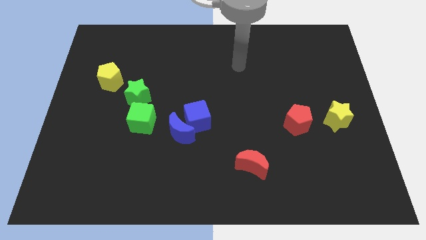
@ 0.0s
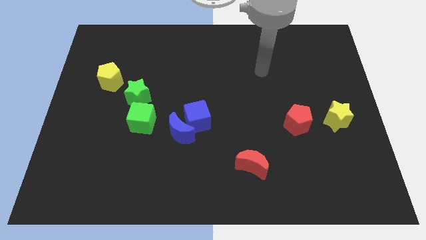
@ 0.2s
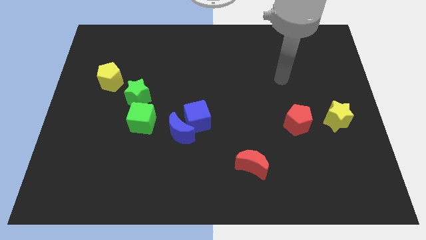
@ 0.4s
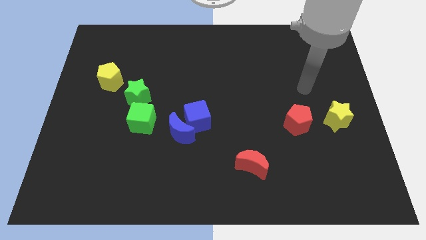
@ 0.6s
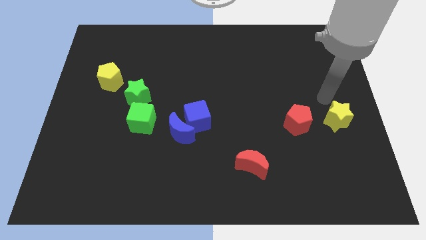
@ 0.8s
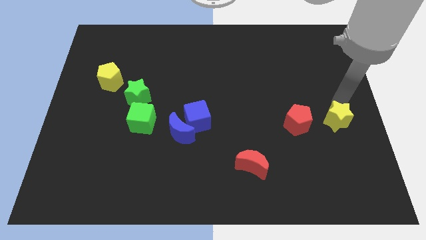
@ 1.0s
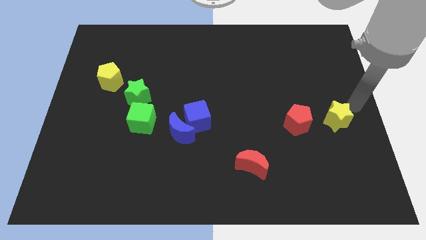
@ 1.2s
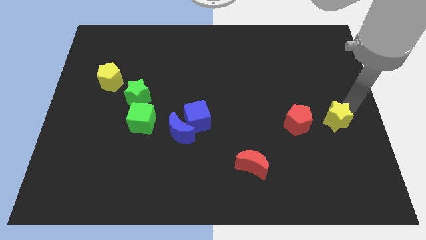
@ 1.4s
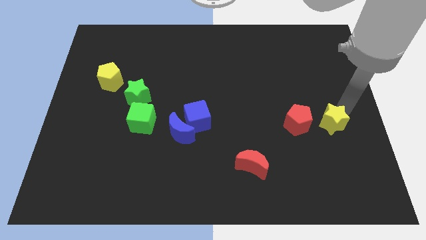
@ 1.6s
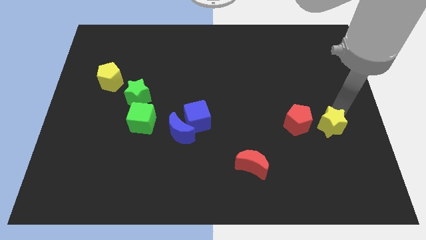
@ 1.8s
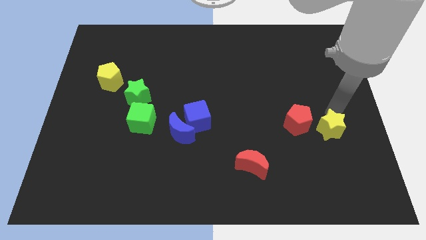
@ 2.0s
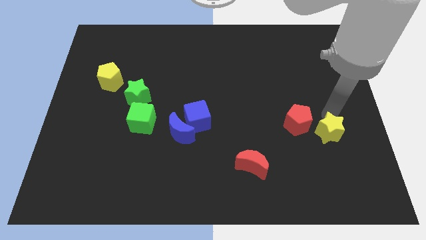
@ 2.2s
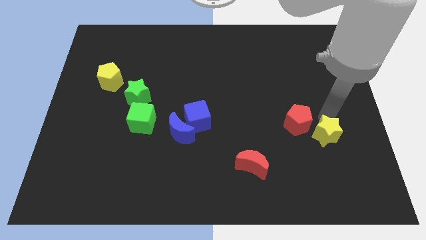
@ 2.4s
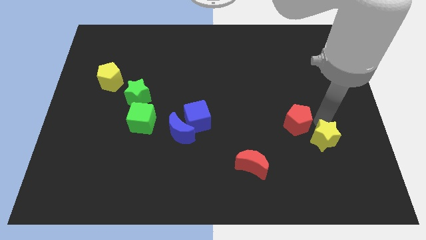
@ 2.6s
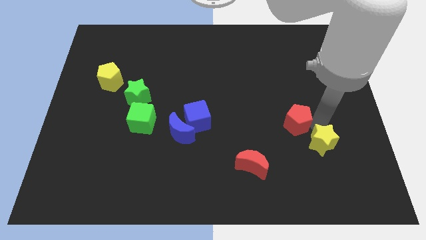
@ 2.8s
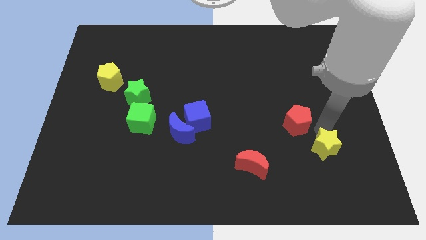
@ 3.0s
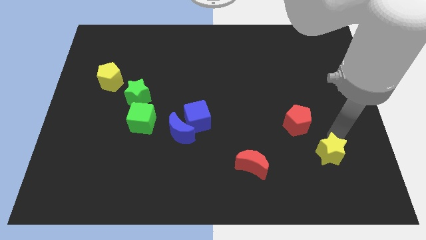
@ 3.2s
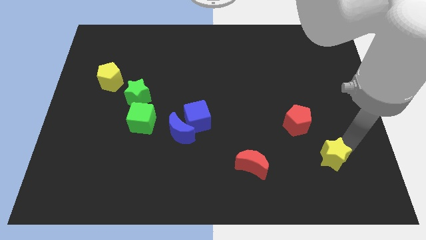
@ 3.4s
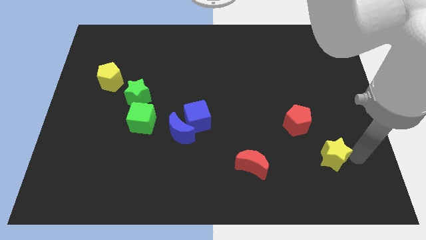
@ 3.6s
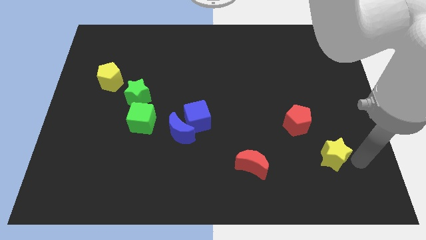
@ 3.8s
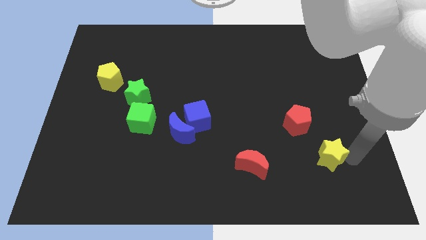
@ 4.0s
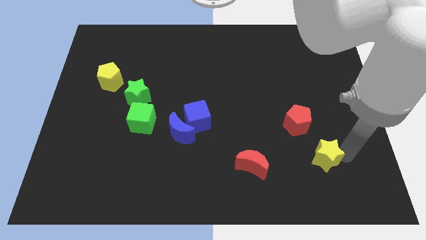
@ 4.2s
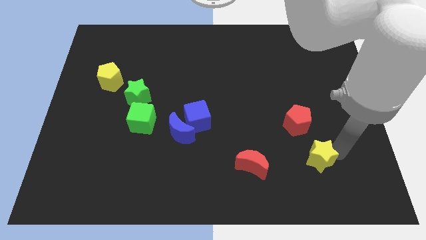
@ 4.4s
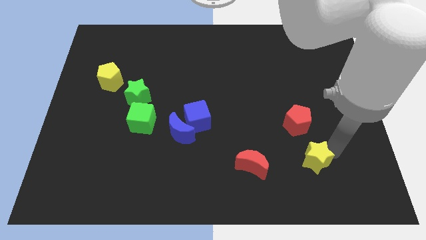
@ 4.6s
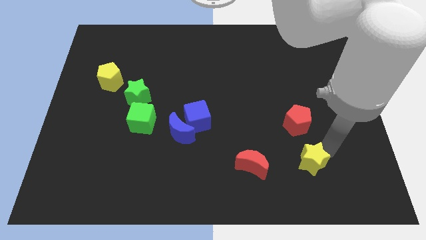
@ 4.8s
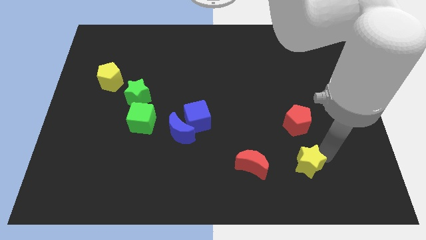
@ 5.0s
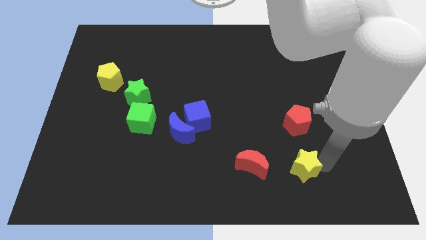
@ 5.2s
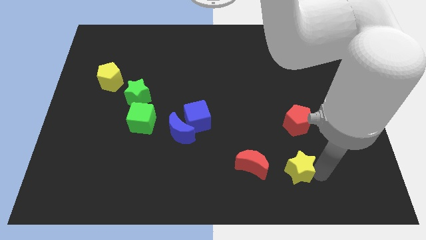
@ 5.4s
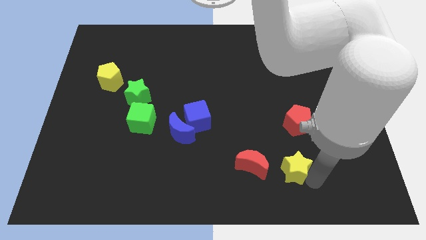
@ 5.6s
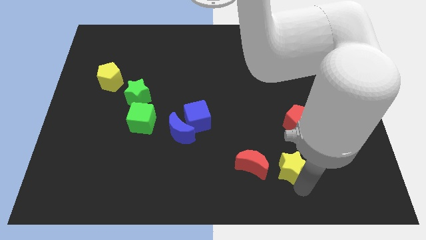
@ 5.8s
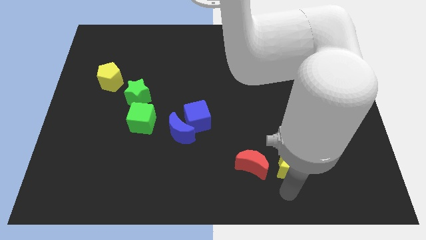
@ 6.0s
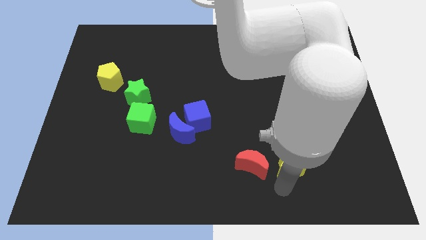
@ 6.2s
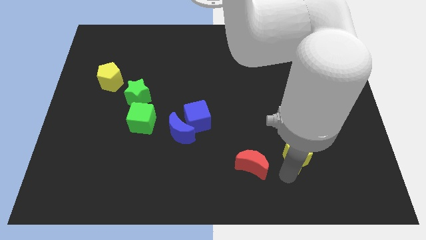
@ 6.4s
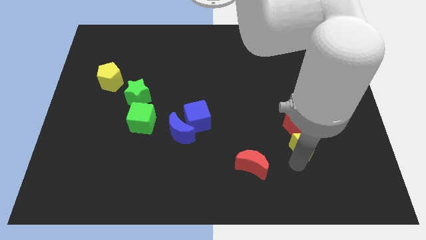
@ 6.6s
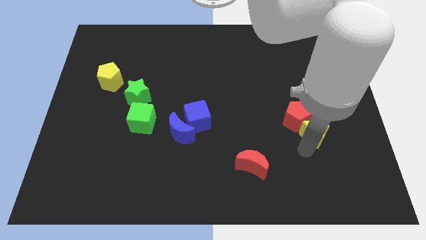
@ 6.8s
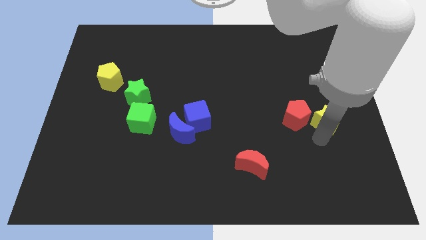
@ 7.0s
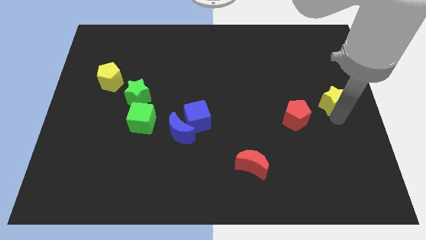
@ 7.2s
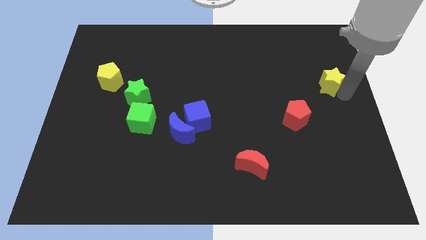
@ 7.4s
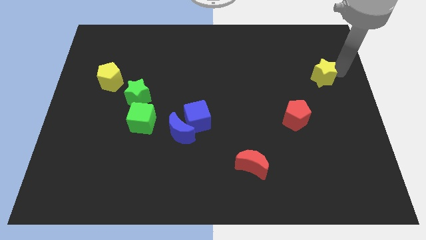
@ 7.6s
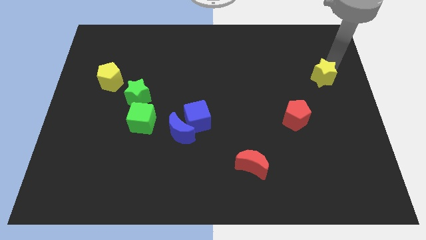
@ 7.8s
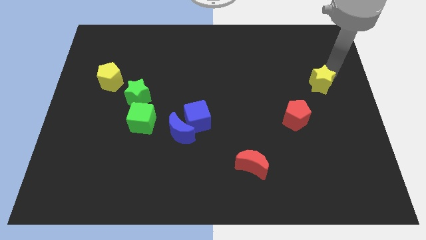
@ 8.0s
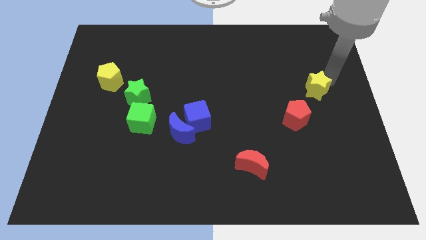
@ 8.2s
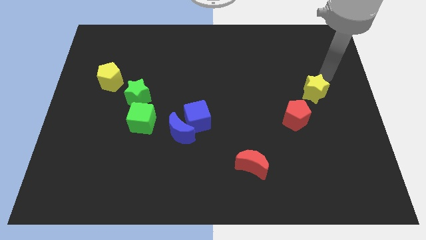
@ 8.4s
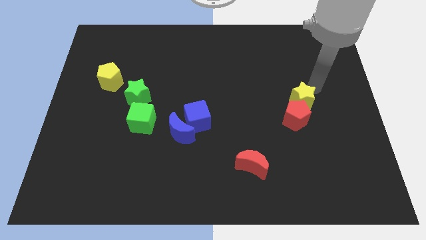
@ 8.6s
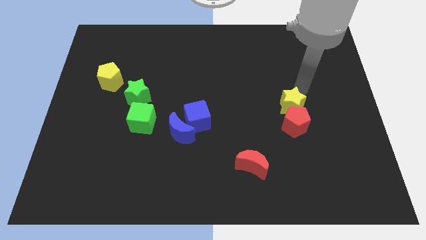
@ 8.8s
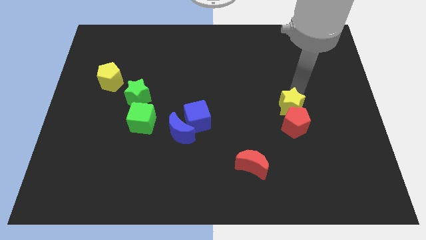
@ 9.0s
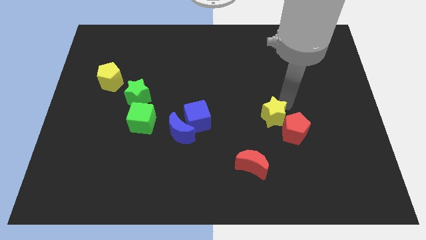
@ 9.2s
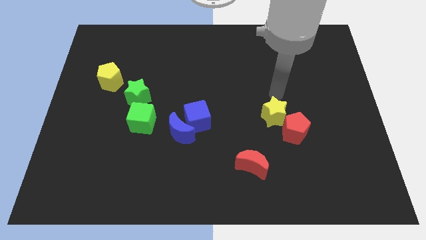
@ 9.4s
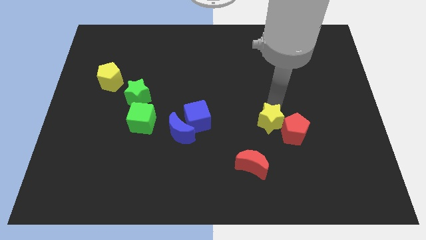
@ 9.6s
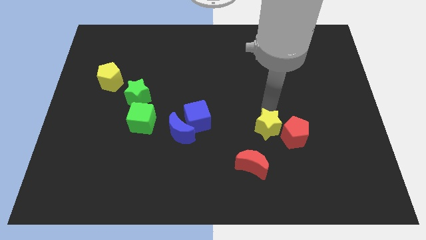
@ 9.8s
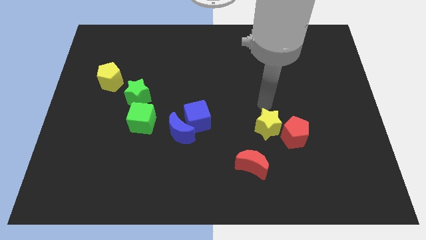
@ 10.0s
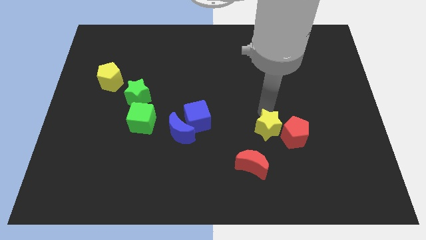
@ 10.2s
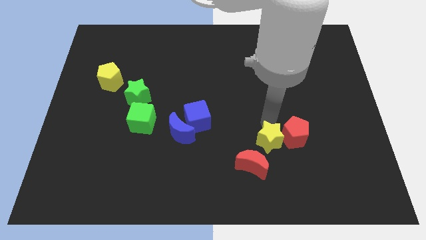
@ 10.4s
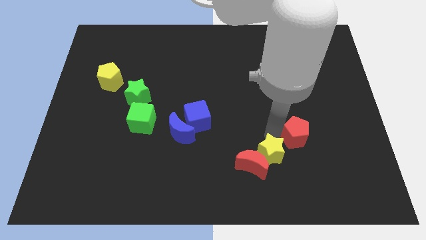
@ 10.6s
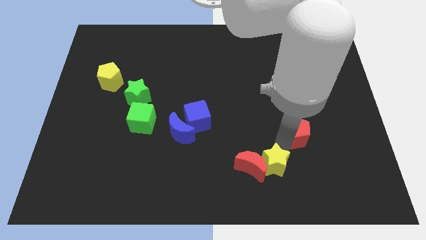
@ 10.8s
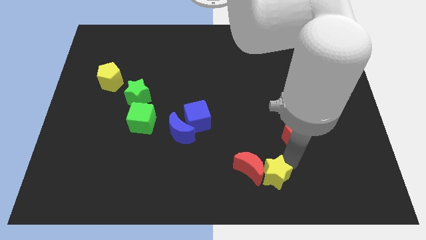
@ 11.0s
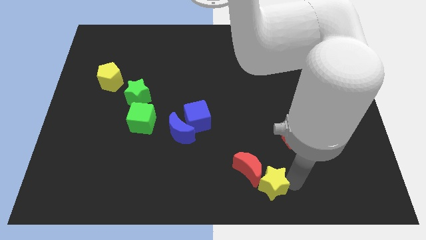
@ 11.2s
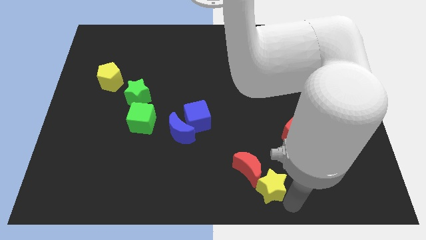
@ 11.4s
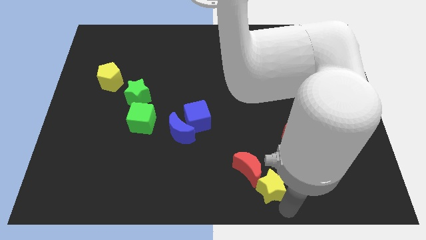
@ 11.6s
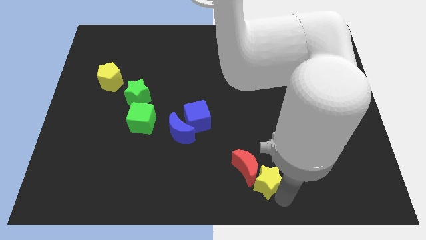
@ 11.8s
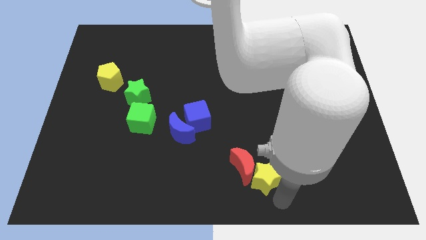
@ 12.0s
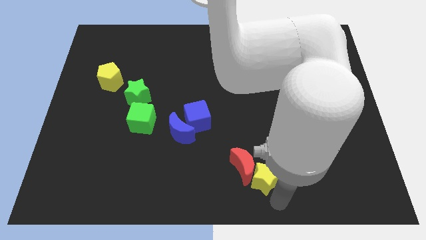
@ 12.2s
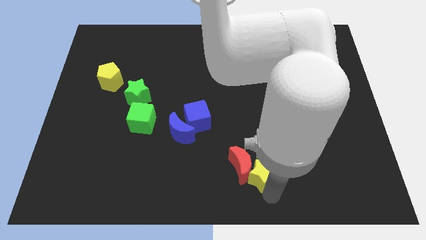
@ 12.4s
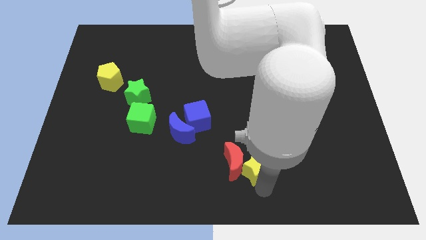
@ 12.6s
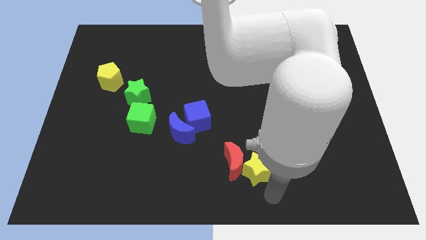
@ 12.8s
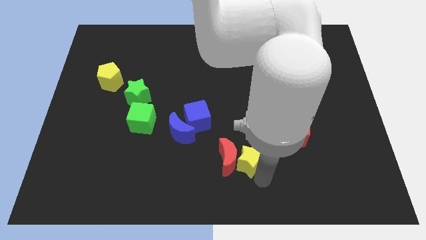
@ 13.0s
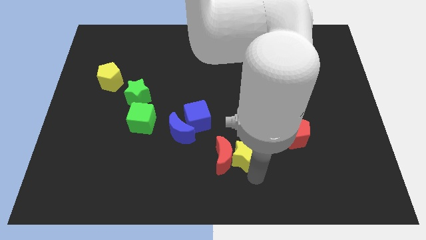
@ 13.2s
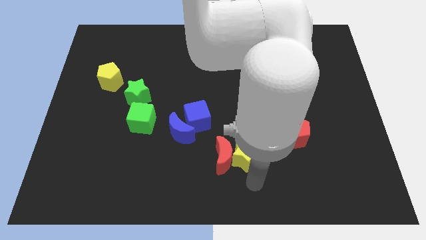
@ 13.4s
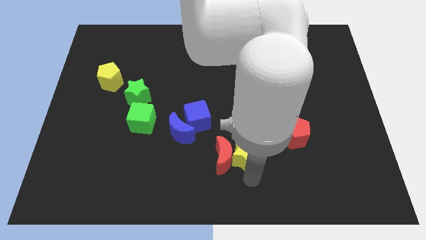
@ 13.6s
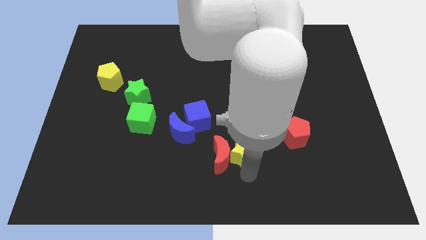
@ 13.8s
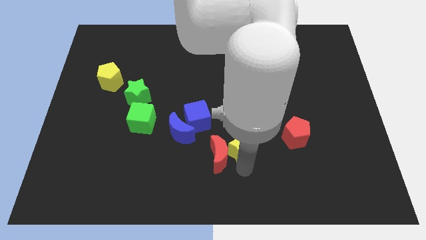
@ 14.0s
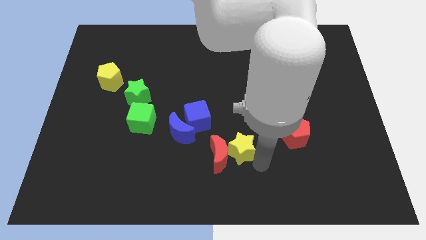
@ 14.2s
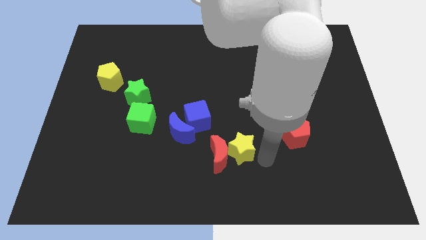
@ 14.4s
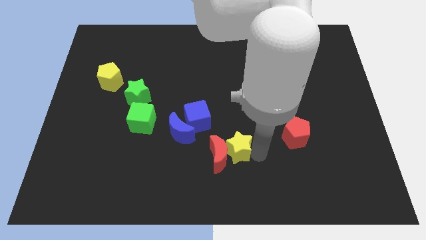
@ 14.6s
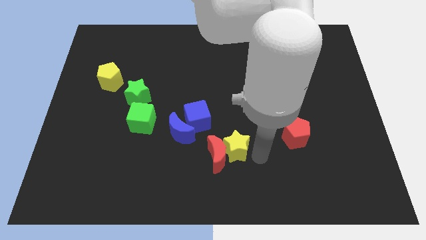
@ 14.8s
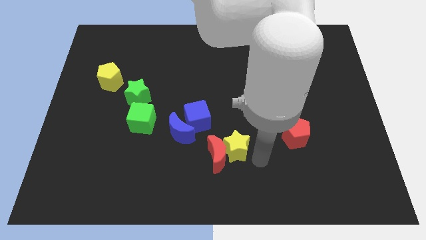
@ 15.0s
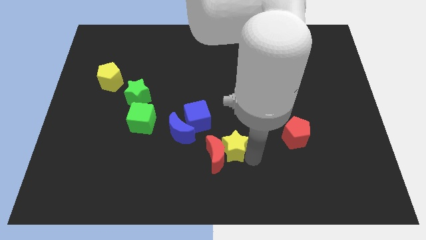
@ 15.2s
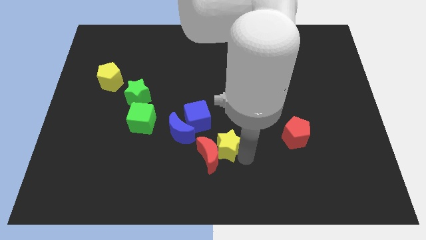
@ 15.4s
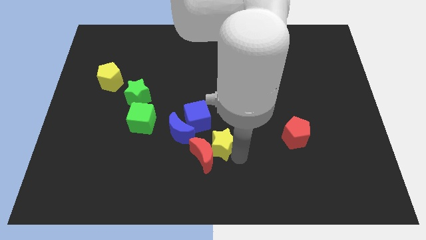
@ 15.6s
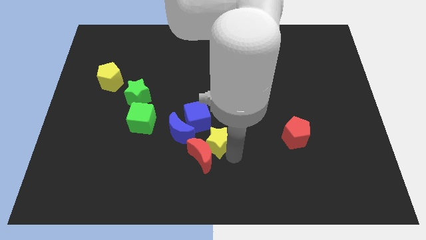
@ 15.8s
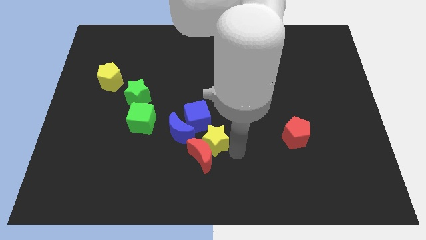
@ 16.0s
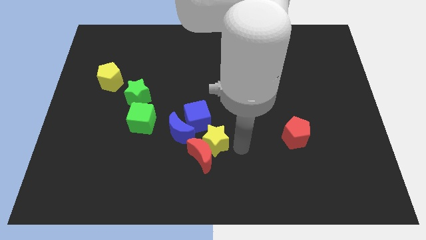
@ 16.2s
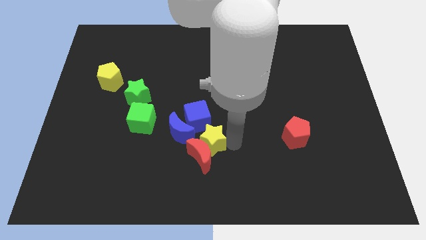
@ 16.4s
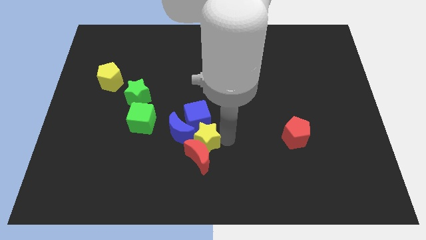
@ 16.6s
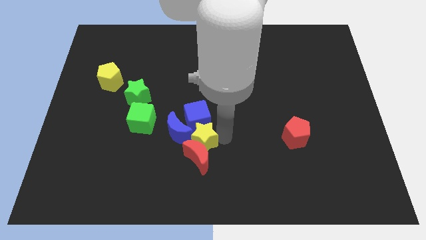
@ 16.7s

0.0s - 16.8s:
put the yellow star next to the blue moon
